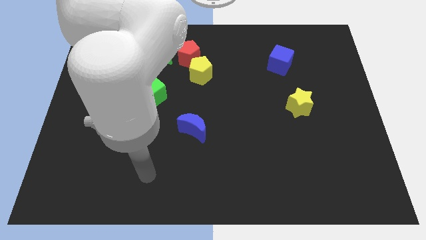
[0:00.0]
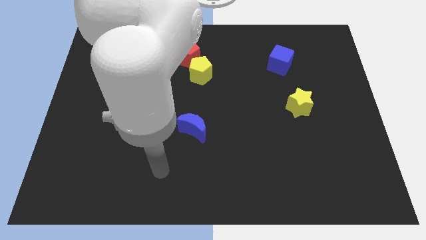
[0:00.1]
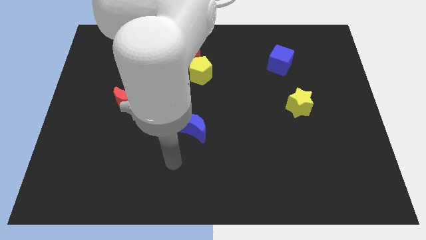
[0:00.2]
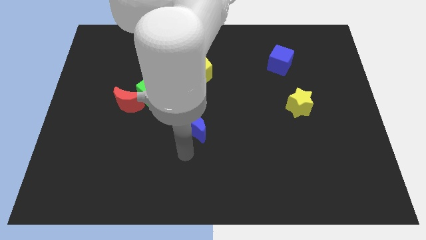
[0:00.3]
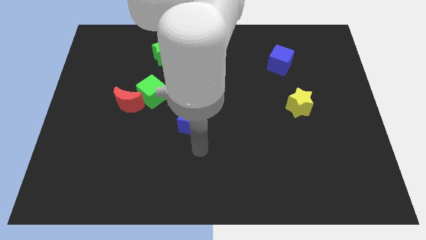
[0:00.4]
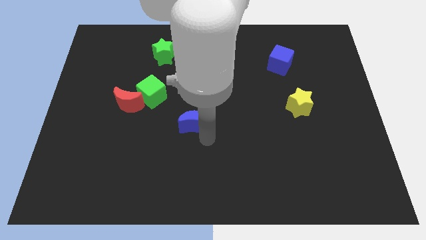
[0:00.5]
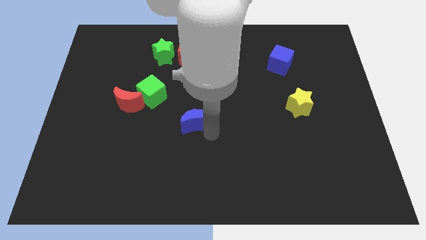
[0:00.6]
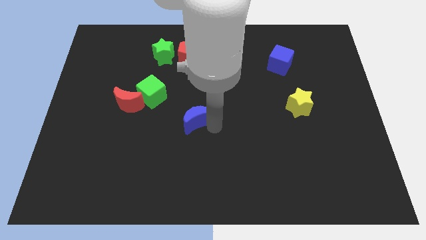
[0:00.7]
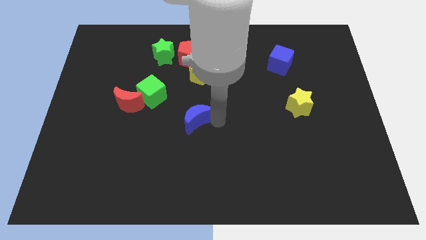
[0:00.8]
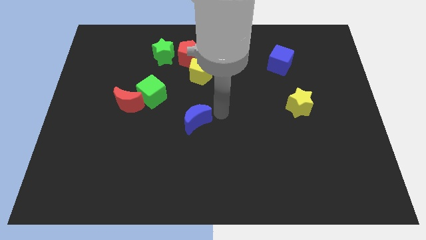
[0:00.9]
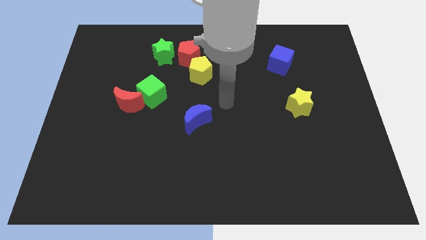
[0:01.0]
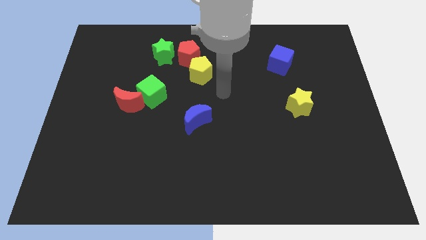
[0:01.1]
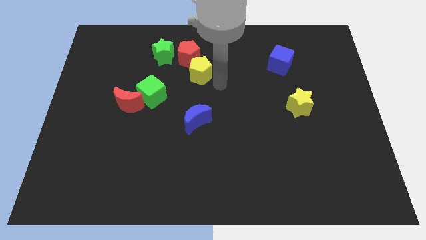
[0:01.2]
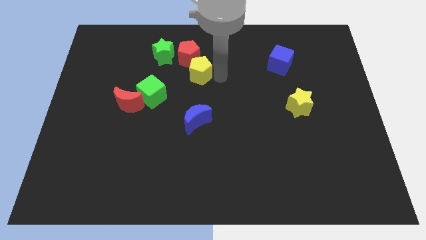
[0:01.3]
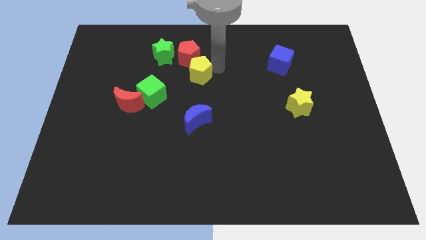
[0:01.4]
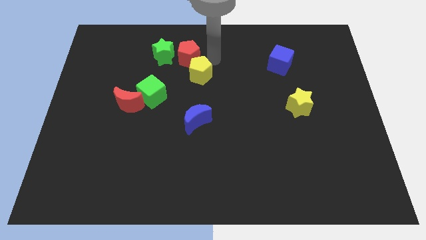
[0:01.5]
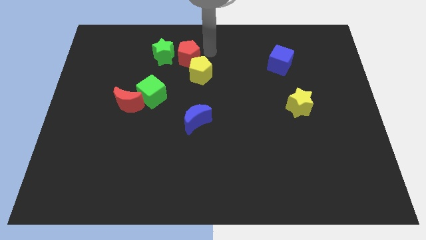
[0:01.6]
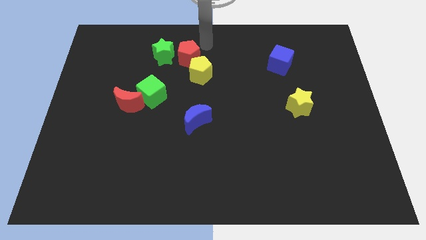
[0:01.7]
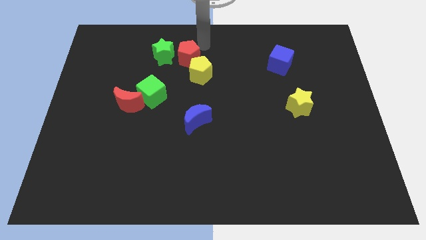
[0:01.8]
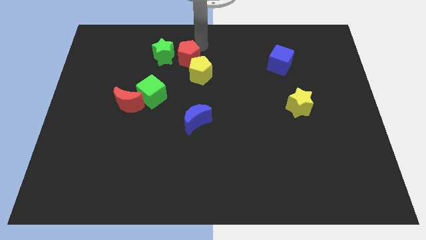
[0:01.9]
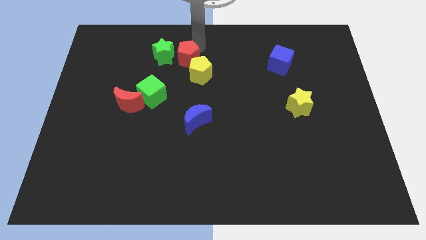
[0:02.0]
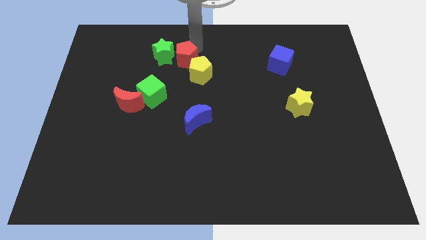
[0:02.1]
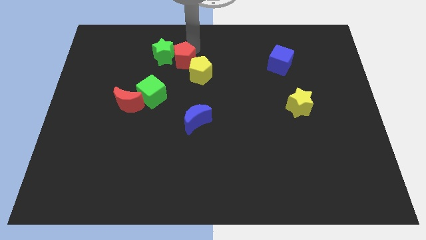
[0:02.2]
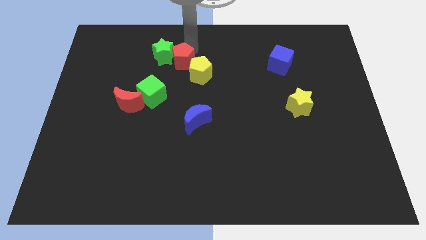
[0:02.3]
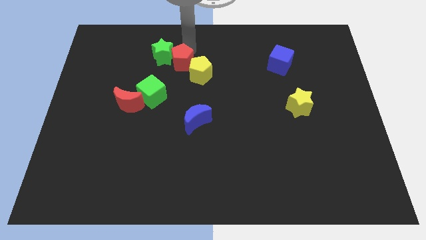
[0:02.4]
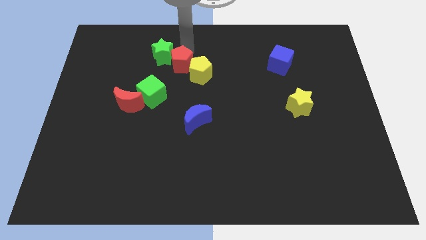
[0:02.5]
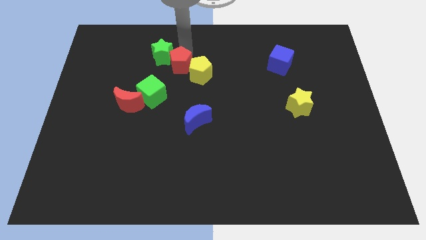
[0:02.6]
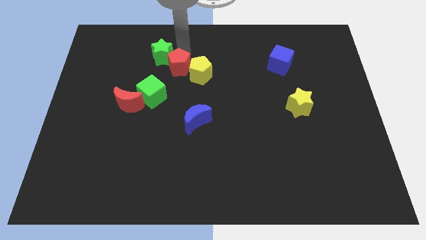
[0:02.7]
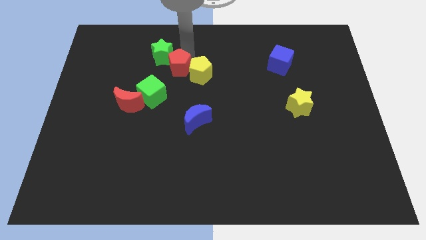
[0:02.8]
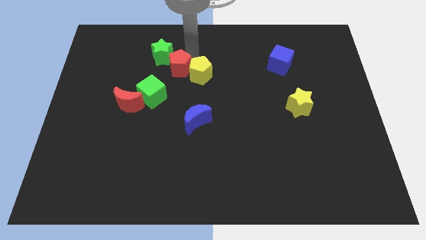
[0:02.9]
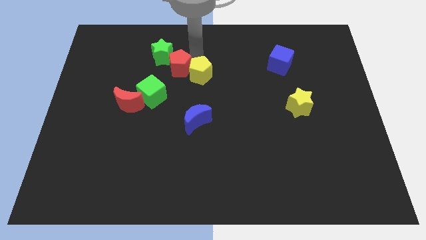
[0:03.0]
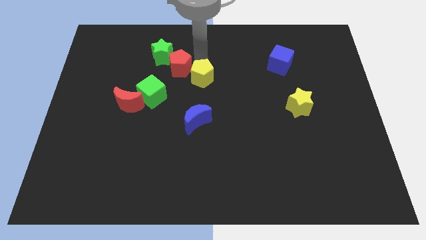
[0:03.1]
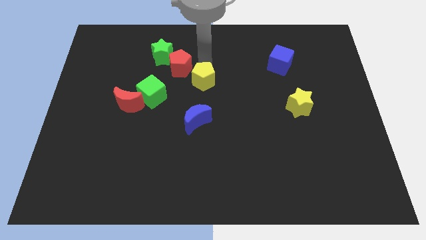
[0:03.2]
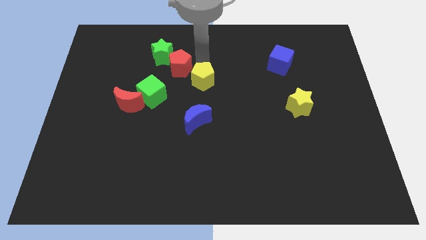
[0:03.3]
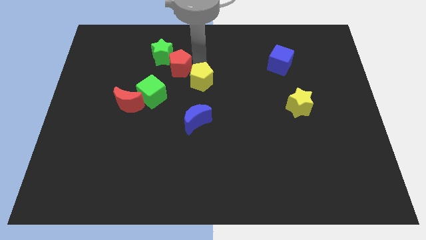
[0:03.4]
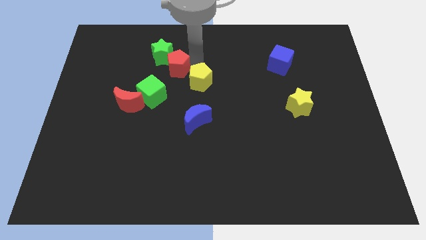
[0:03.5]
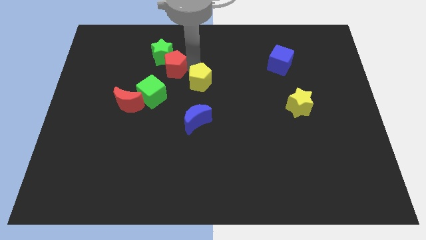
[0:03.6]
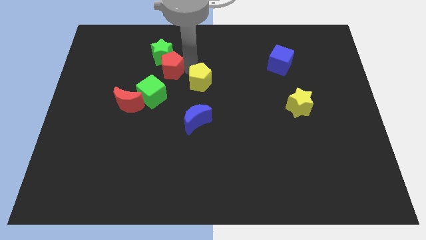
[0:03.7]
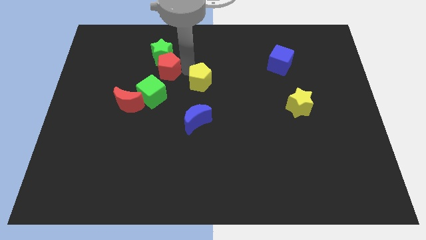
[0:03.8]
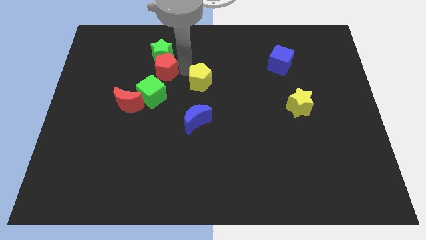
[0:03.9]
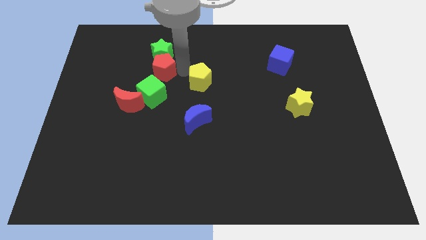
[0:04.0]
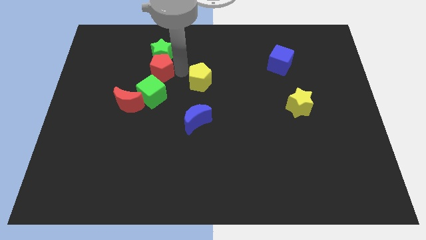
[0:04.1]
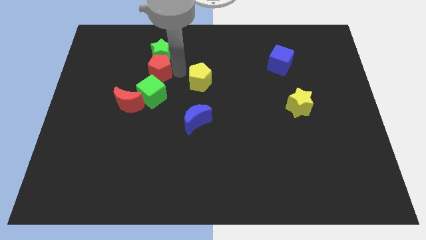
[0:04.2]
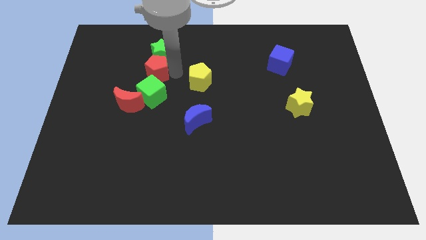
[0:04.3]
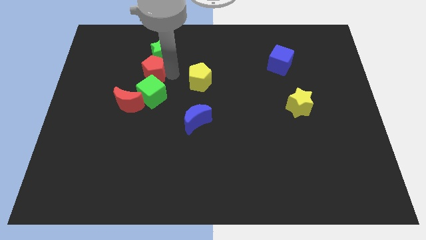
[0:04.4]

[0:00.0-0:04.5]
move the red pentagon slightly left

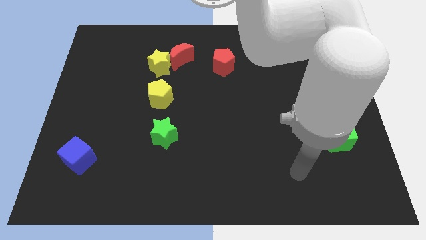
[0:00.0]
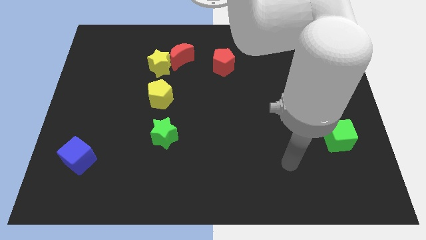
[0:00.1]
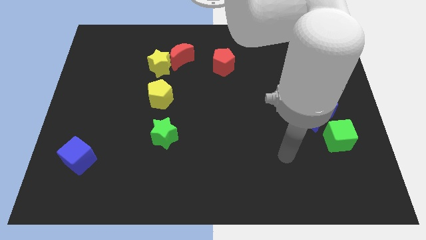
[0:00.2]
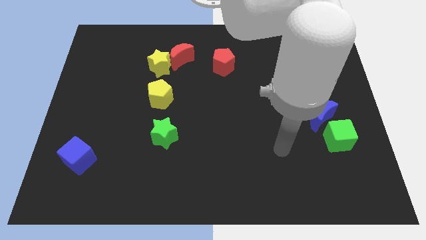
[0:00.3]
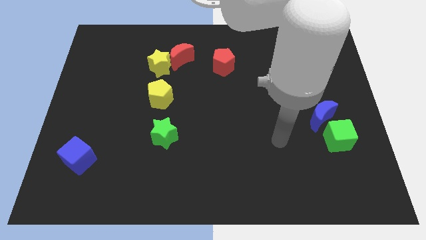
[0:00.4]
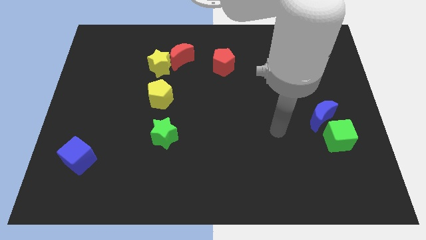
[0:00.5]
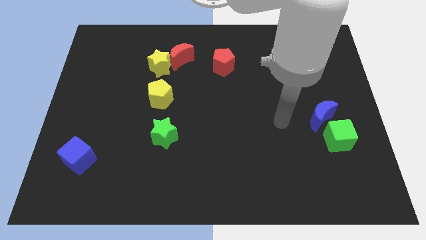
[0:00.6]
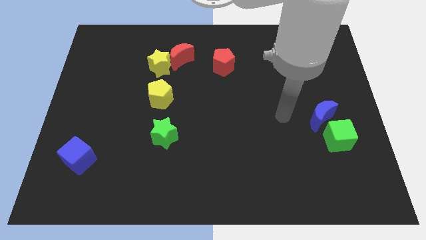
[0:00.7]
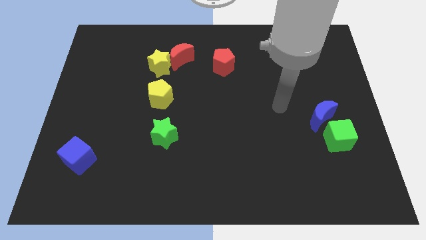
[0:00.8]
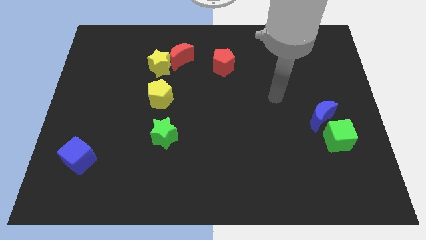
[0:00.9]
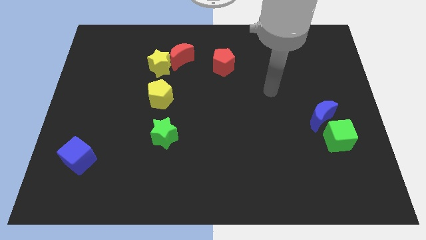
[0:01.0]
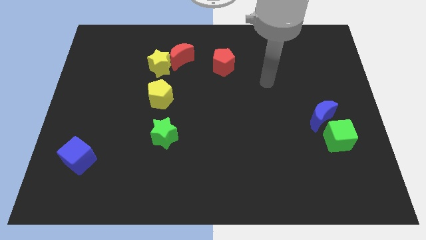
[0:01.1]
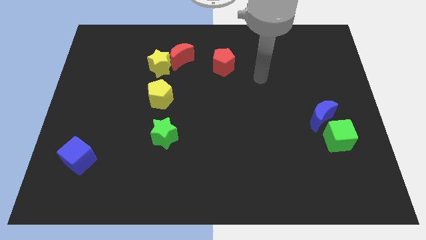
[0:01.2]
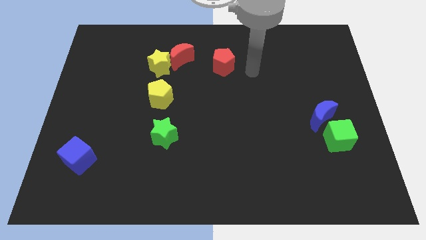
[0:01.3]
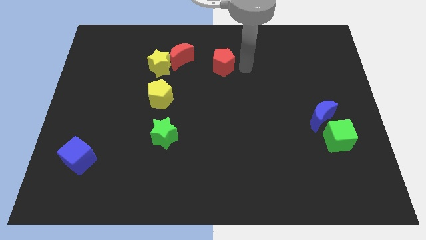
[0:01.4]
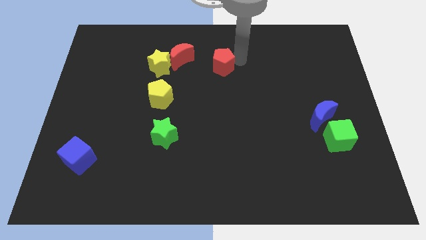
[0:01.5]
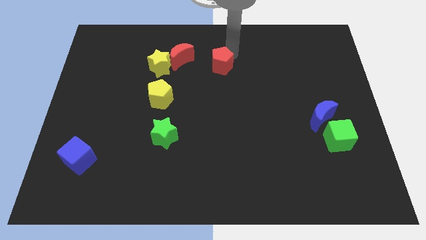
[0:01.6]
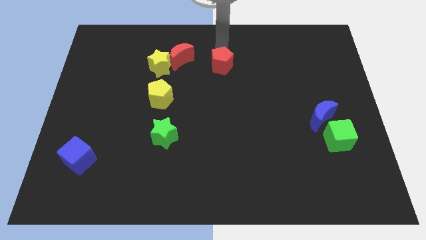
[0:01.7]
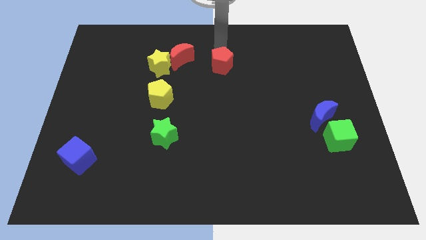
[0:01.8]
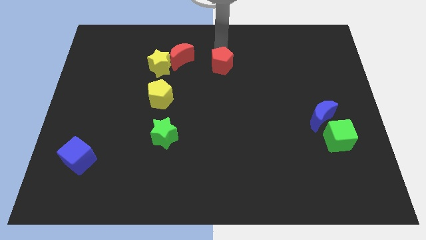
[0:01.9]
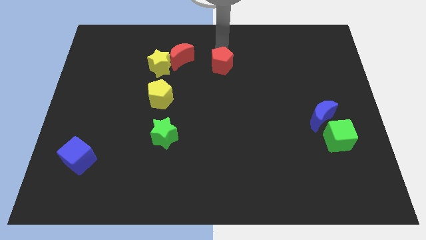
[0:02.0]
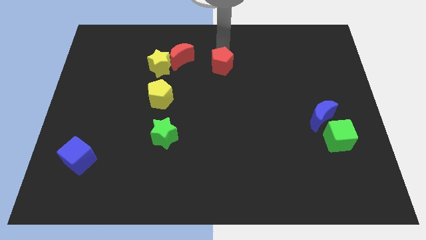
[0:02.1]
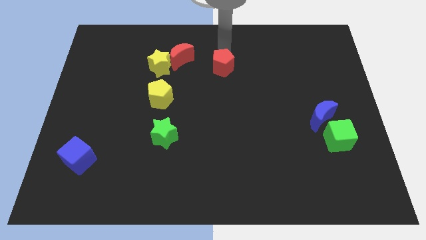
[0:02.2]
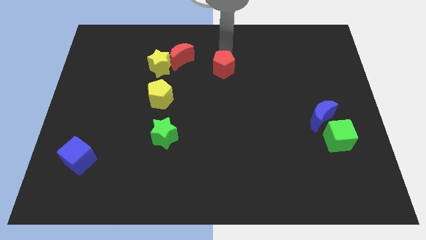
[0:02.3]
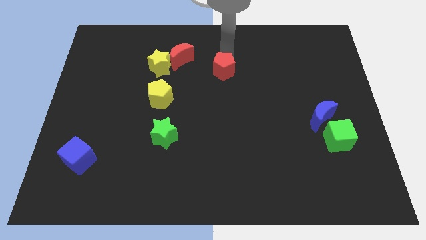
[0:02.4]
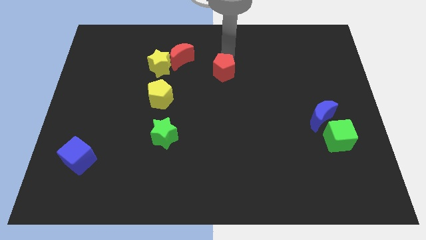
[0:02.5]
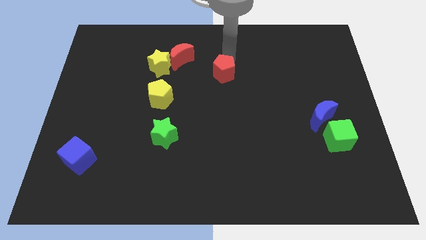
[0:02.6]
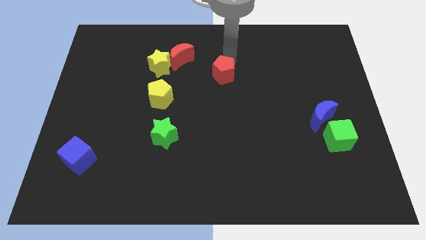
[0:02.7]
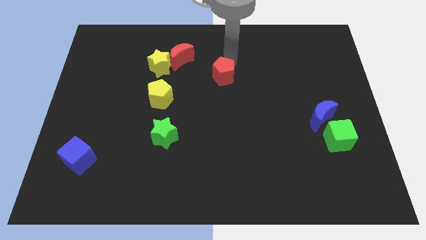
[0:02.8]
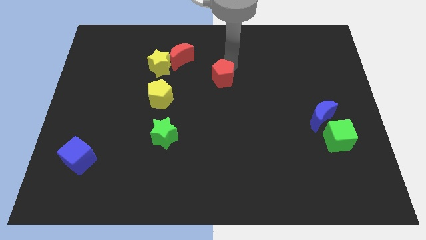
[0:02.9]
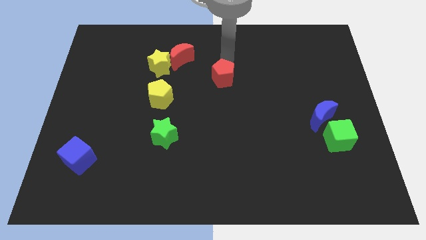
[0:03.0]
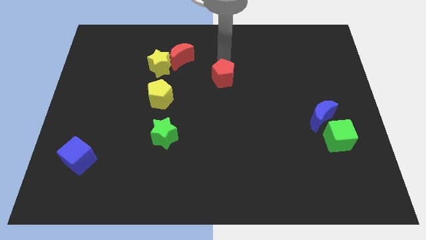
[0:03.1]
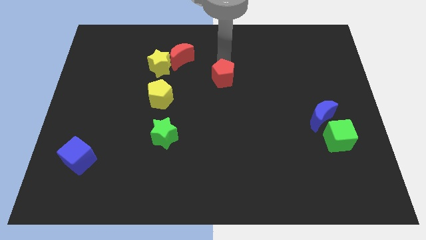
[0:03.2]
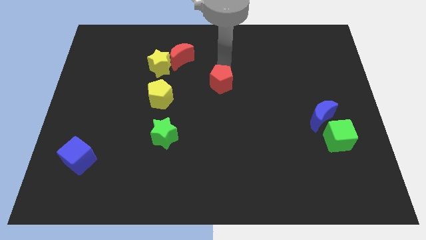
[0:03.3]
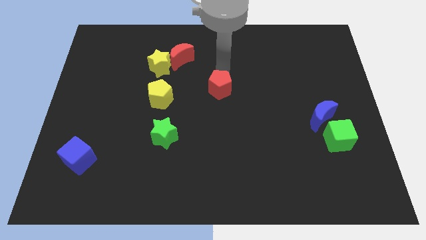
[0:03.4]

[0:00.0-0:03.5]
slightly move the red pentagon downwards
